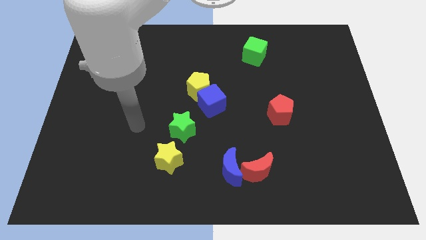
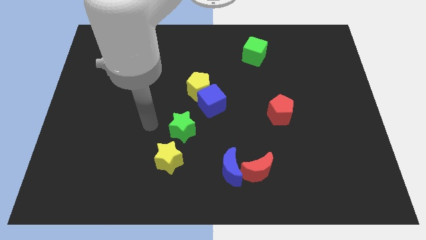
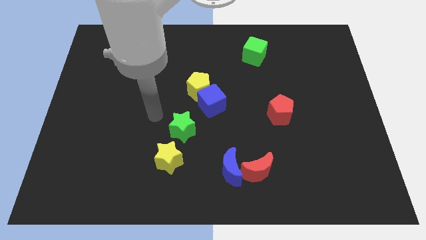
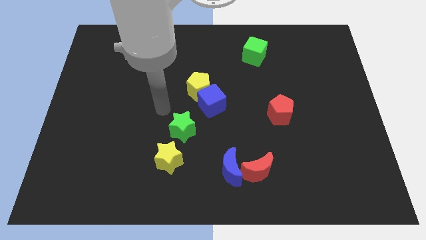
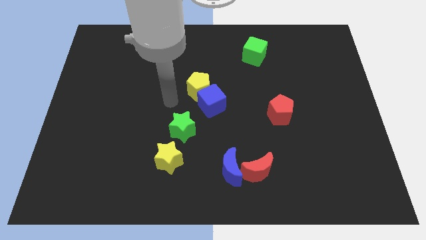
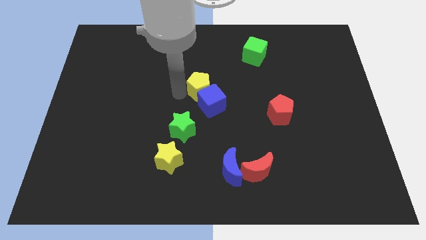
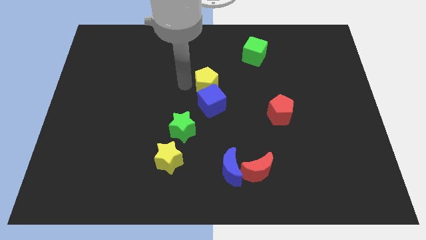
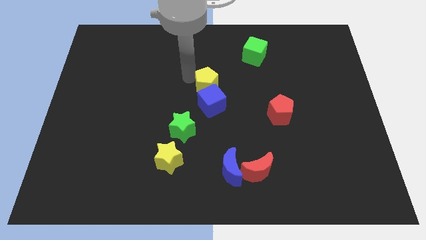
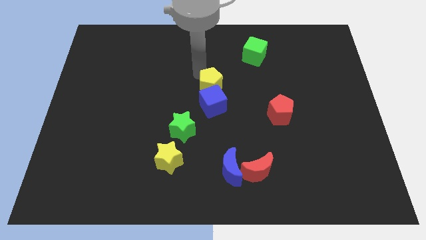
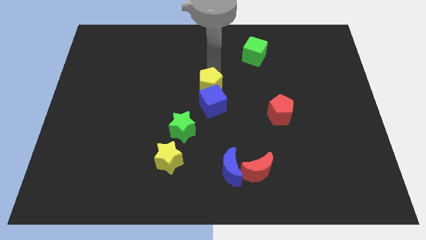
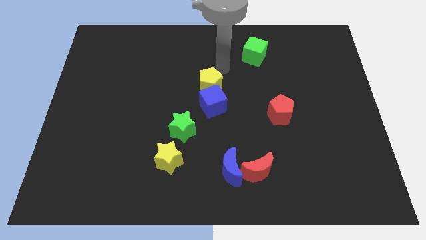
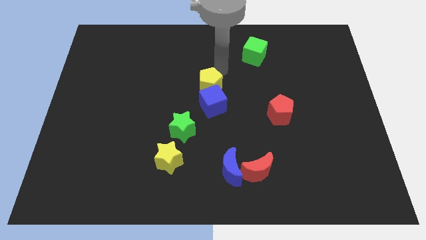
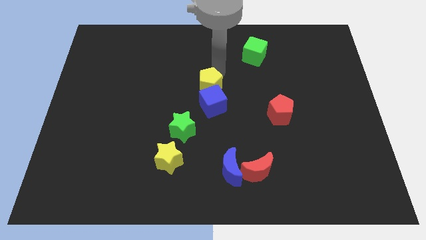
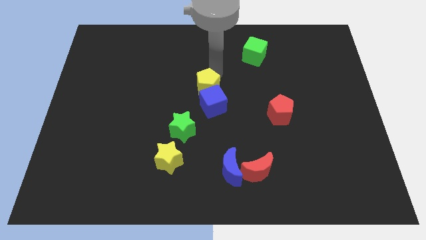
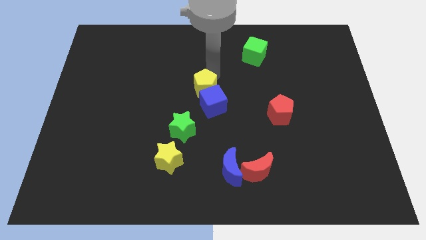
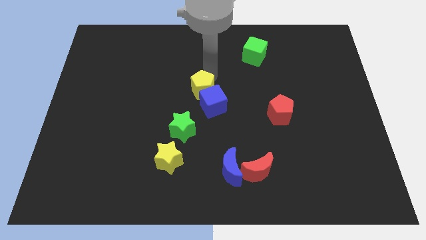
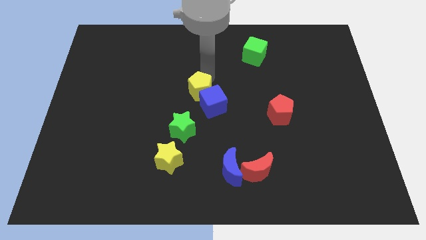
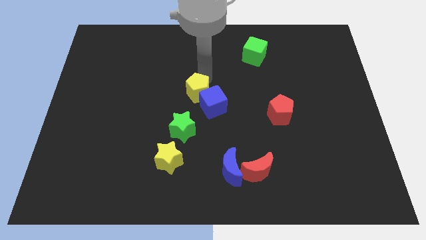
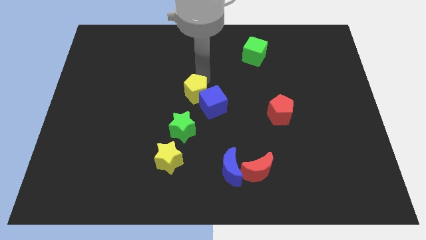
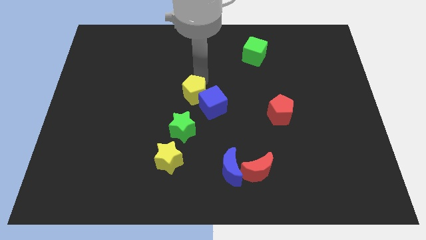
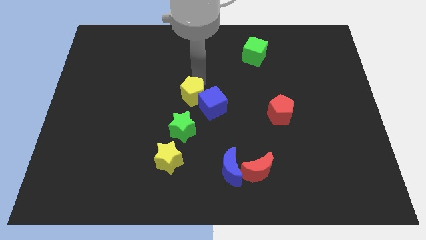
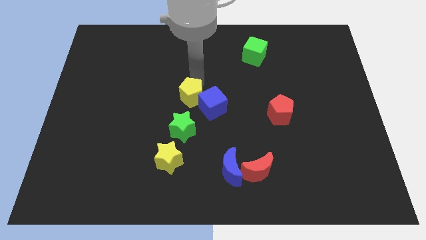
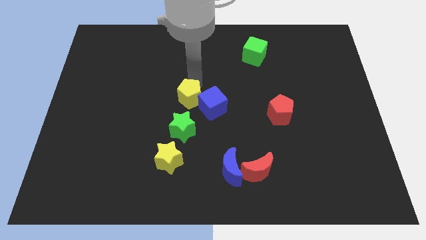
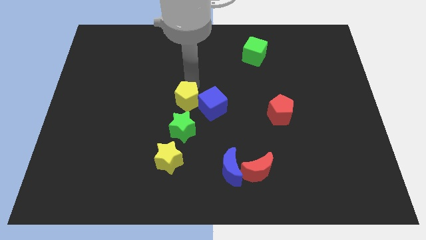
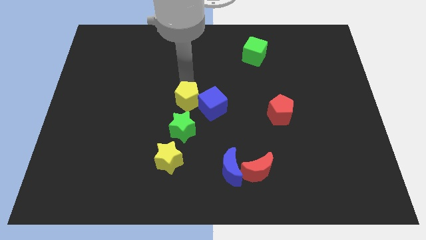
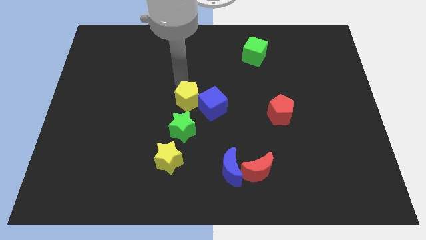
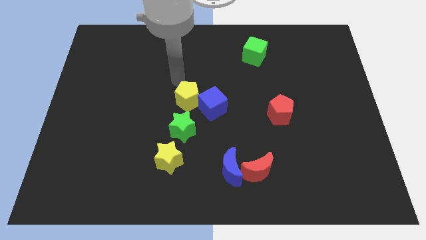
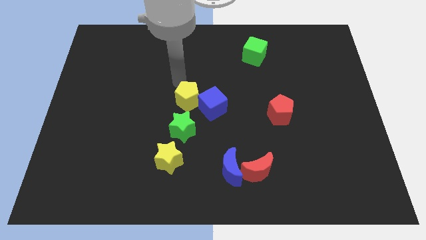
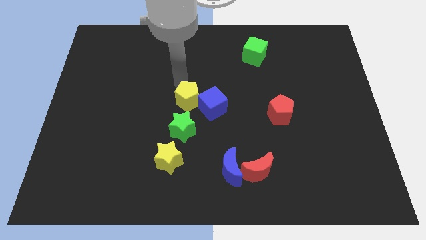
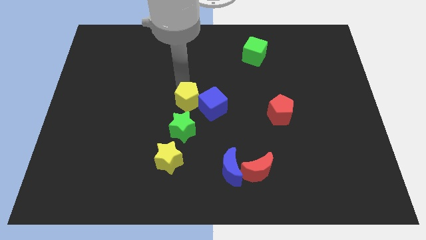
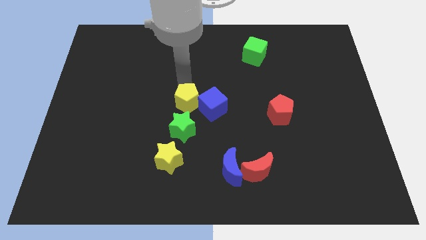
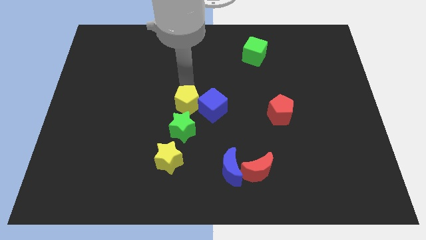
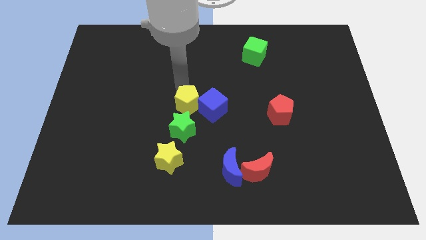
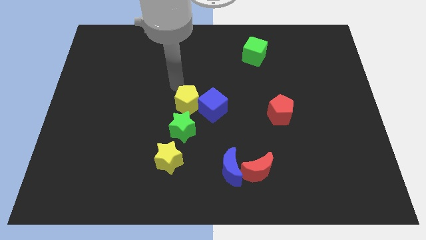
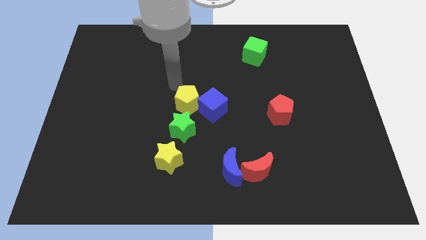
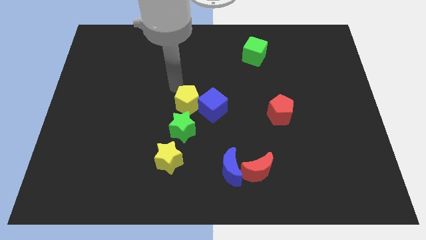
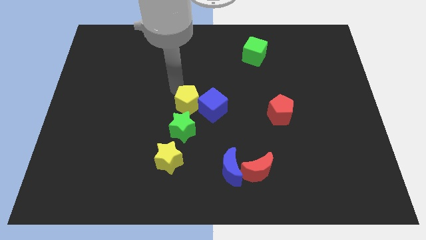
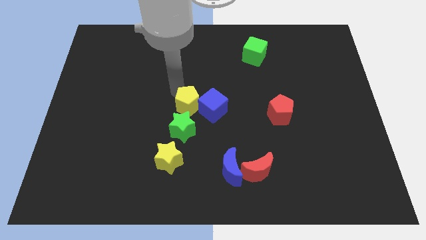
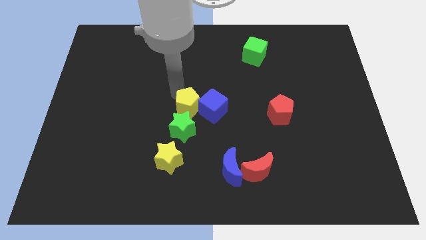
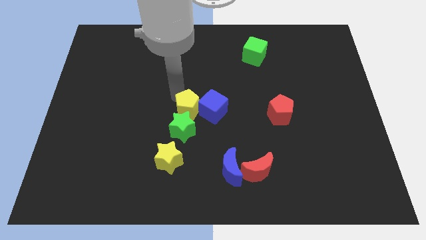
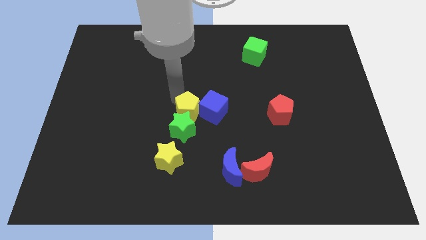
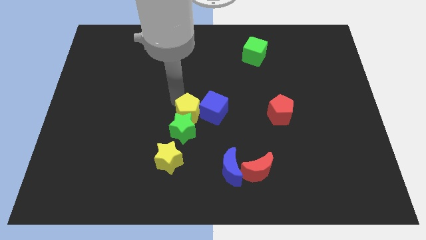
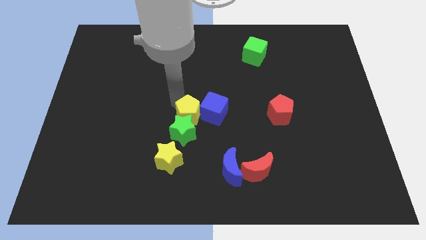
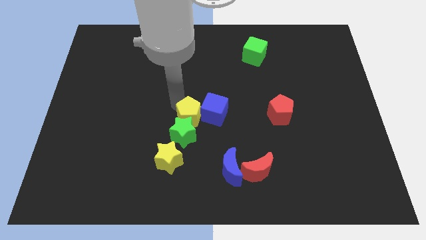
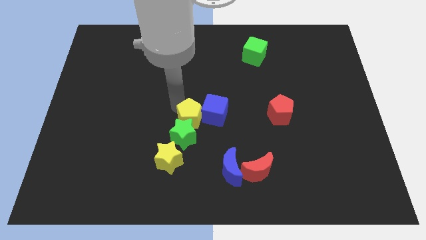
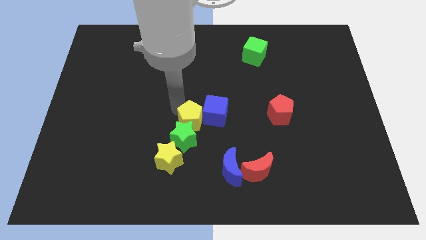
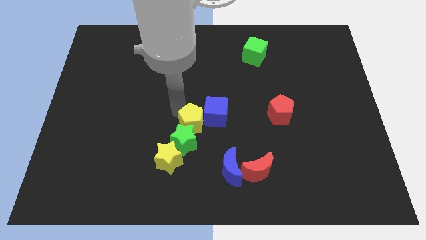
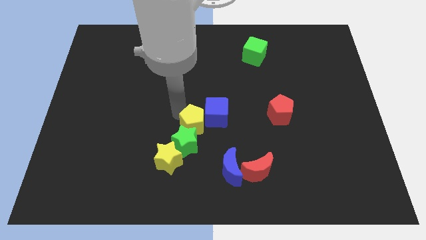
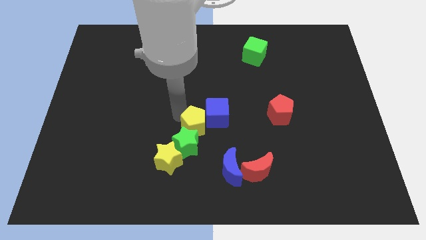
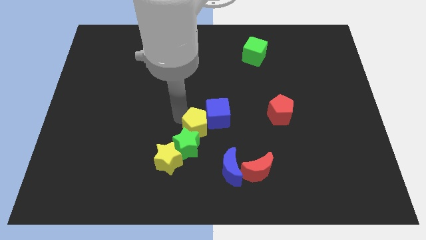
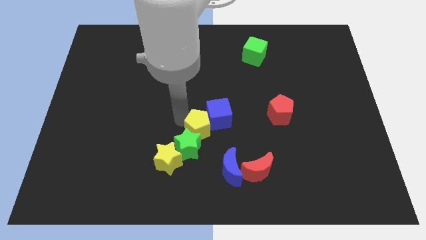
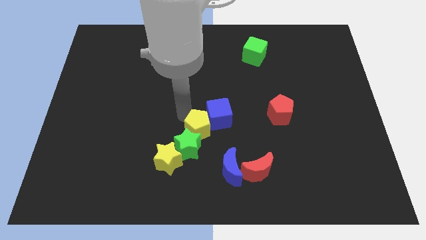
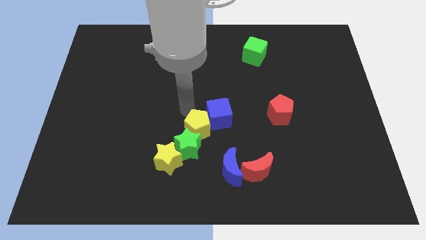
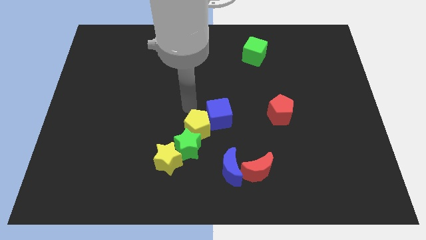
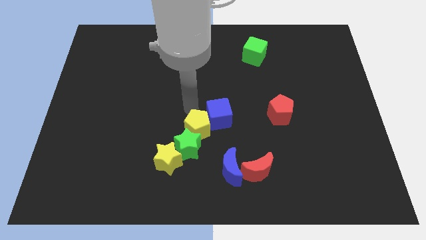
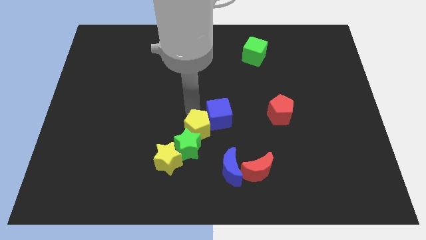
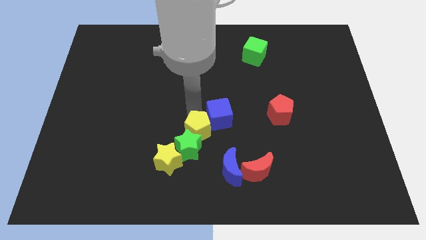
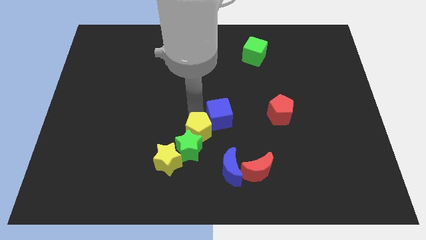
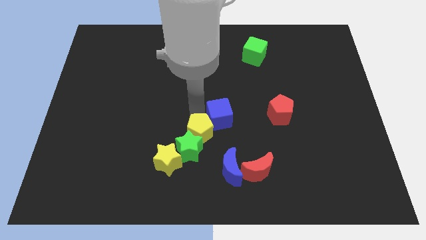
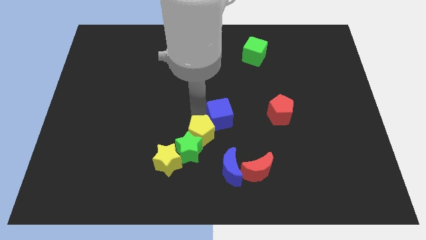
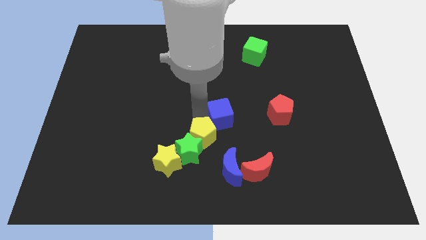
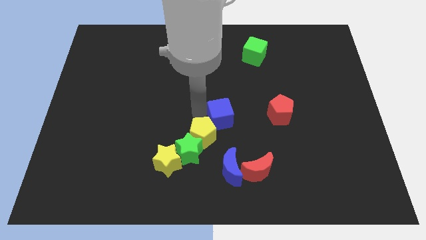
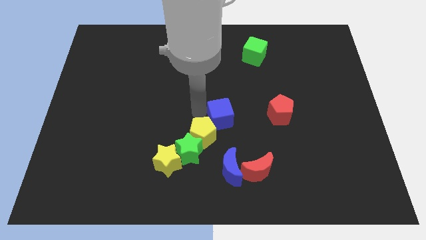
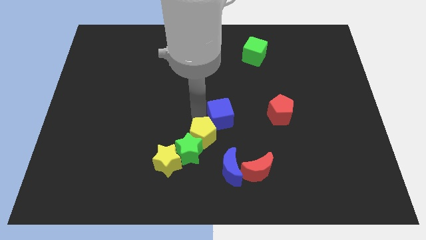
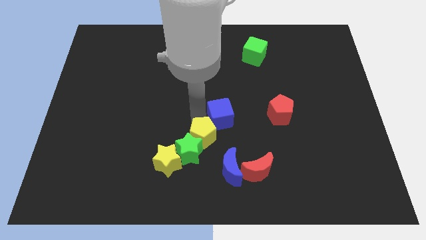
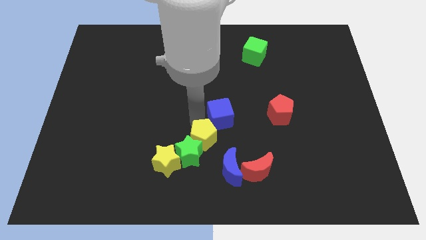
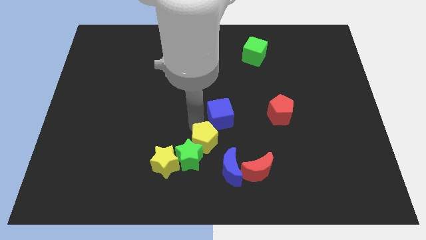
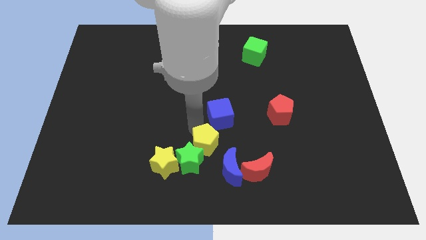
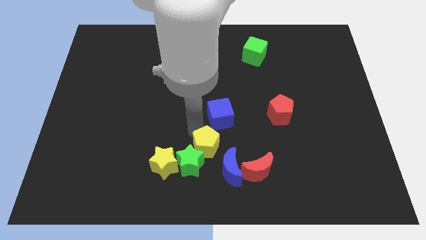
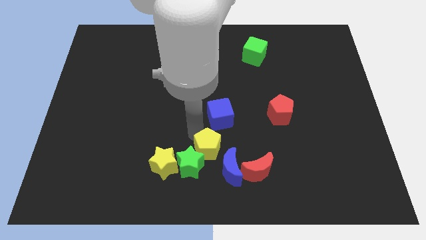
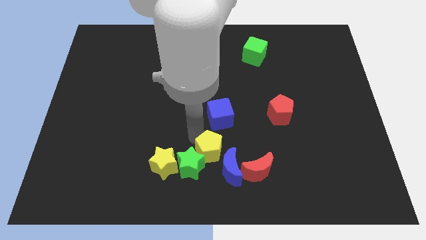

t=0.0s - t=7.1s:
slide the yellow pentagon to the left side of the red moon
